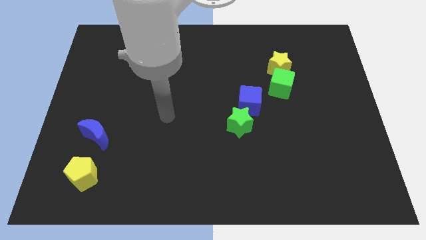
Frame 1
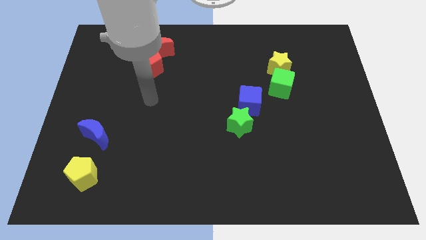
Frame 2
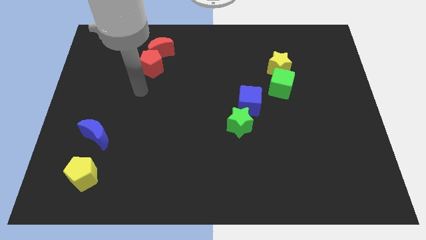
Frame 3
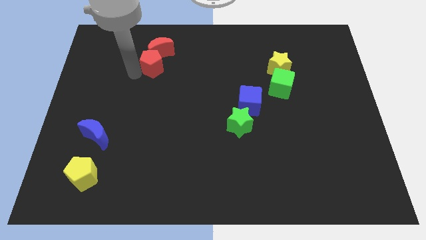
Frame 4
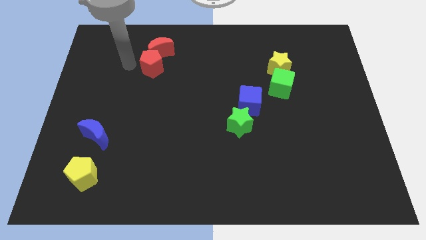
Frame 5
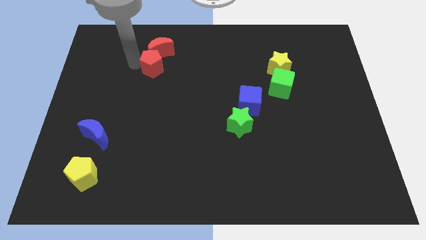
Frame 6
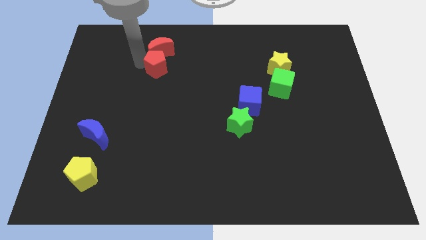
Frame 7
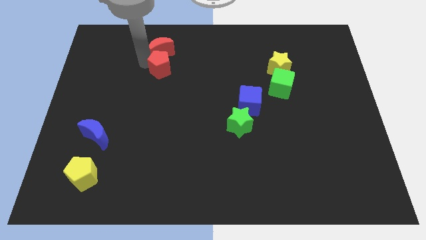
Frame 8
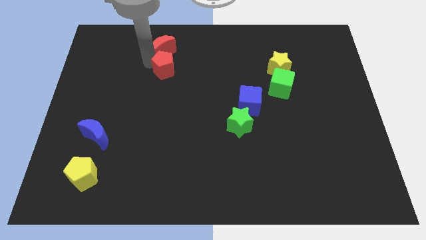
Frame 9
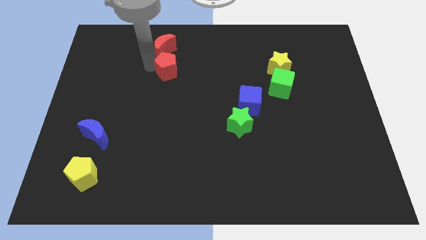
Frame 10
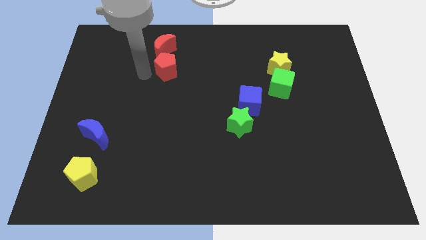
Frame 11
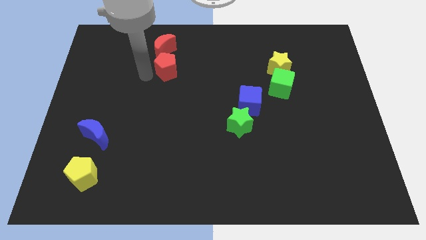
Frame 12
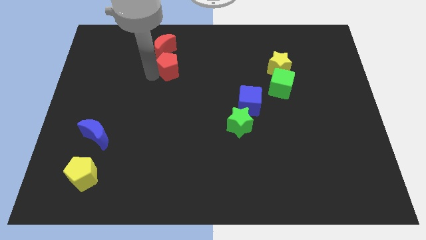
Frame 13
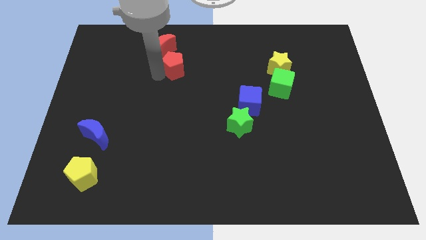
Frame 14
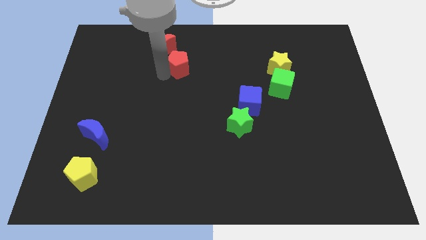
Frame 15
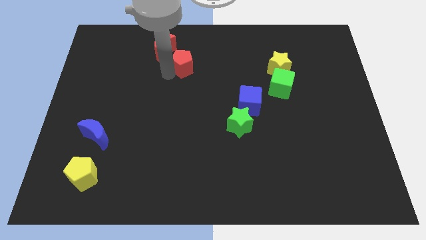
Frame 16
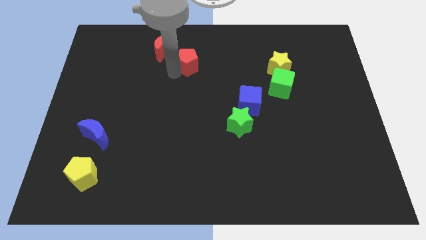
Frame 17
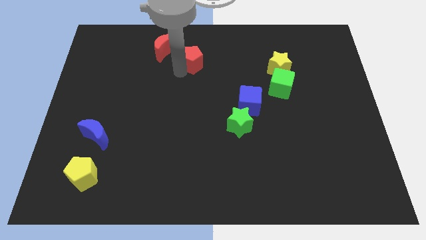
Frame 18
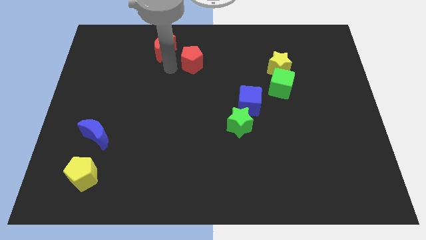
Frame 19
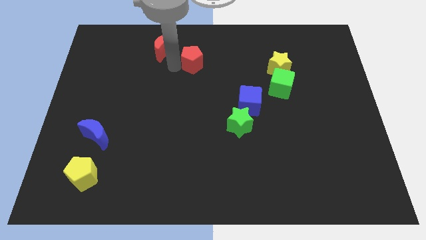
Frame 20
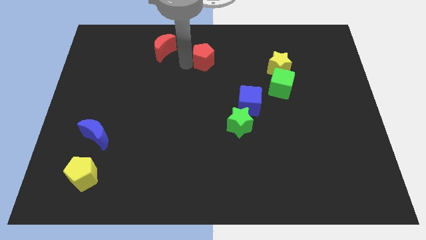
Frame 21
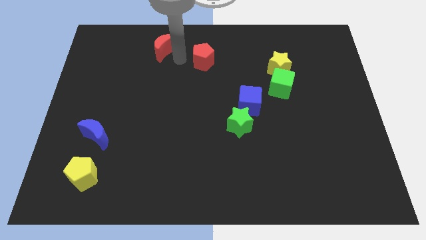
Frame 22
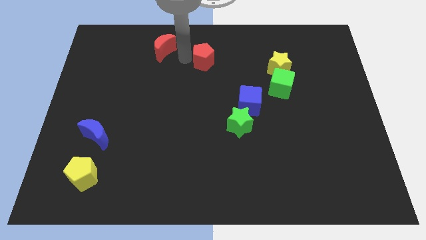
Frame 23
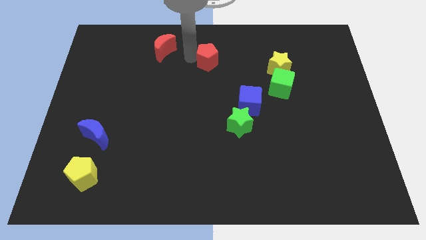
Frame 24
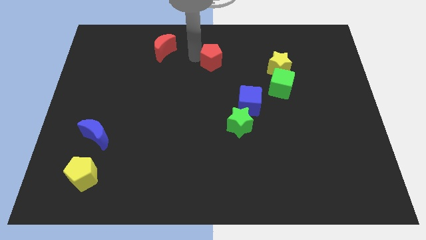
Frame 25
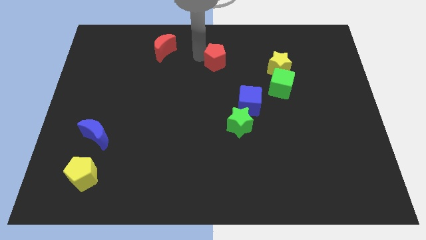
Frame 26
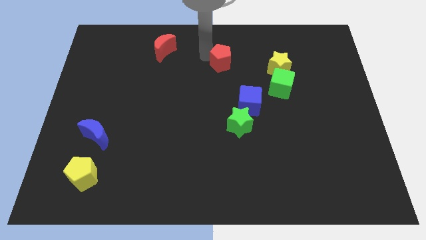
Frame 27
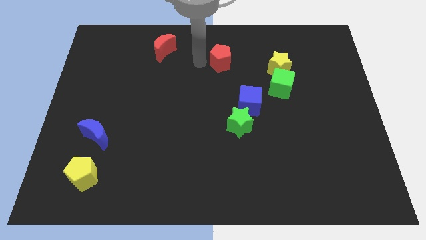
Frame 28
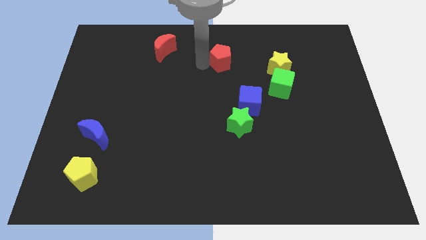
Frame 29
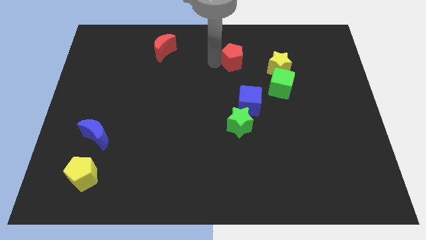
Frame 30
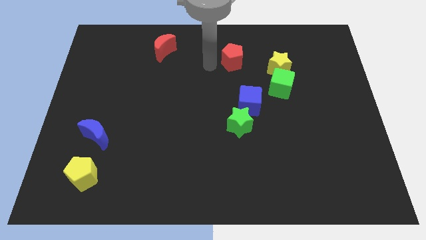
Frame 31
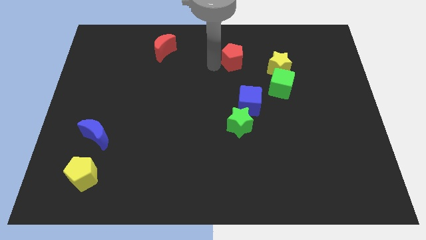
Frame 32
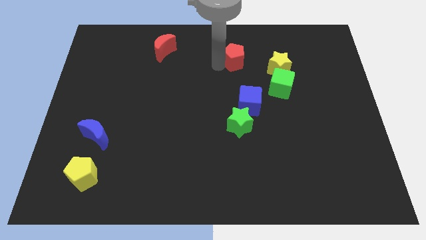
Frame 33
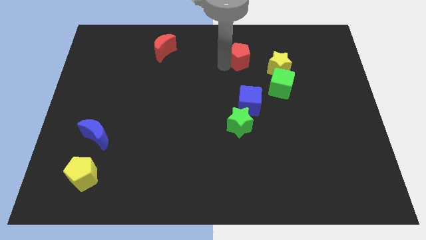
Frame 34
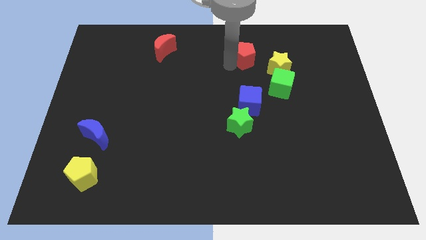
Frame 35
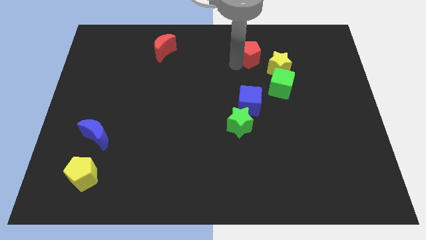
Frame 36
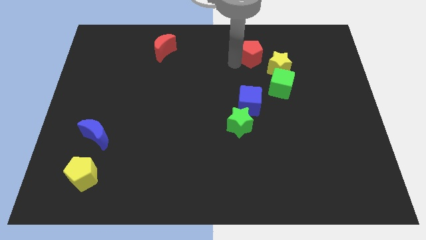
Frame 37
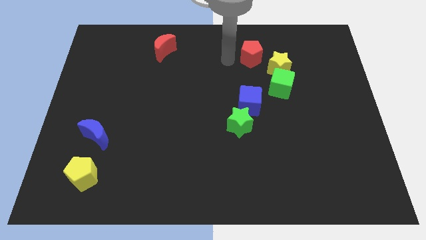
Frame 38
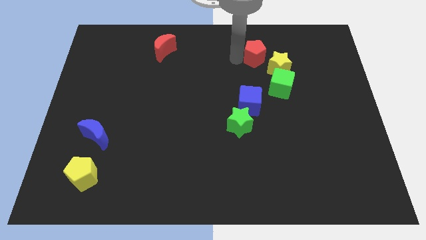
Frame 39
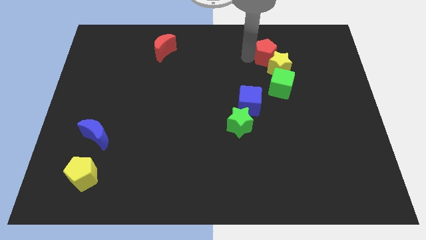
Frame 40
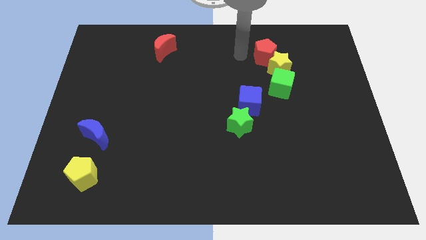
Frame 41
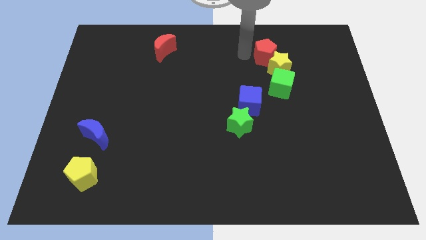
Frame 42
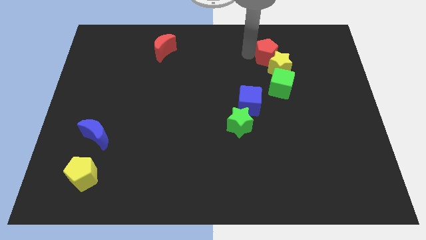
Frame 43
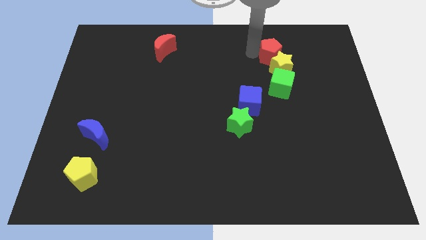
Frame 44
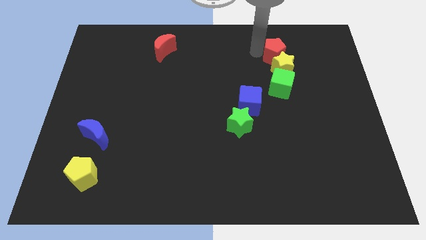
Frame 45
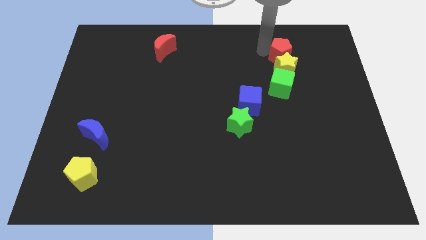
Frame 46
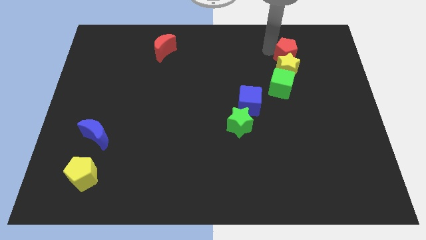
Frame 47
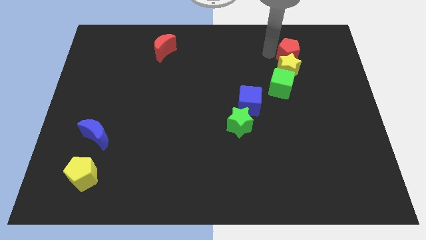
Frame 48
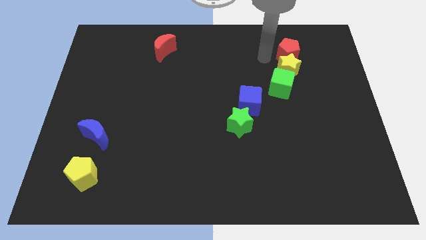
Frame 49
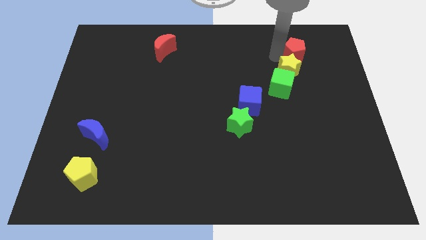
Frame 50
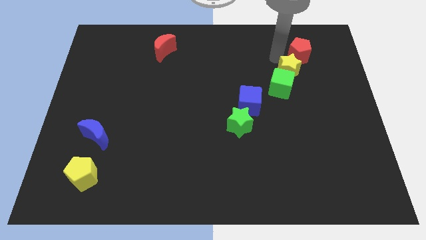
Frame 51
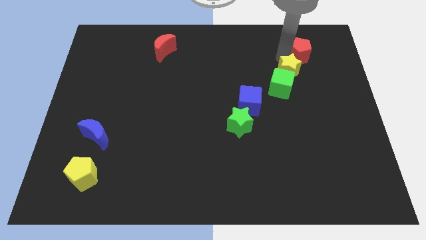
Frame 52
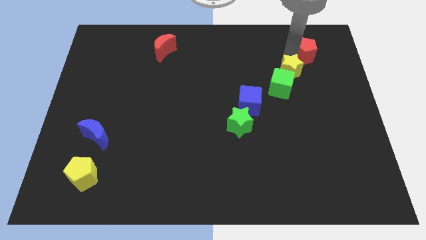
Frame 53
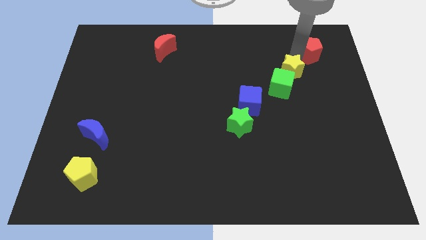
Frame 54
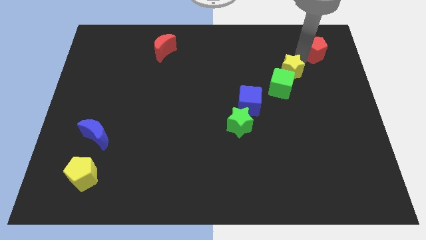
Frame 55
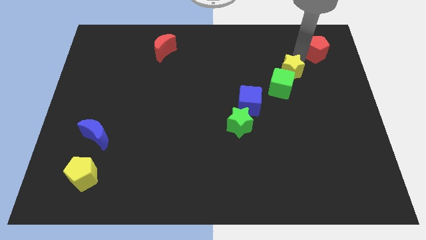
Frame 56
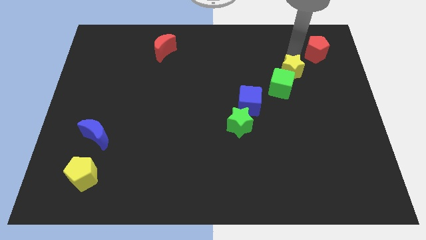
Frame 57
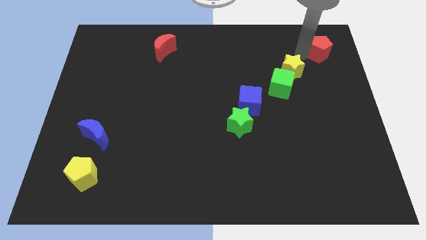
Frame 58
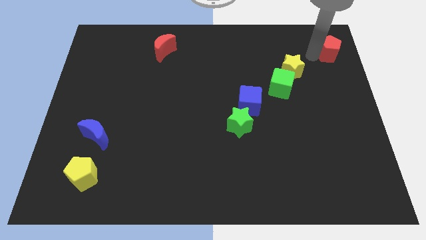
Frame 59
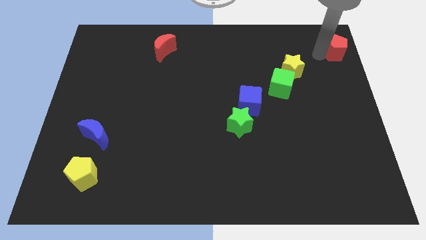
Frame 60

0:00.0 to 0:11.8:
slide the red pentagon to the upper right corner

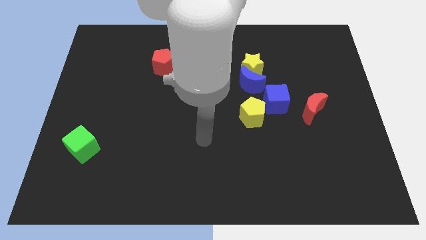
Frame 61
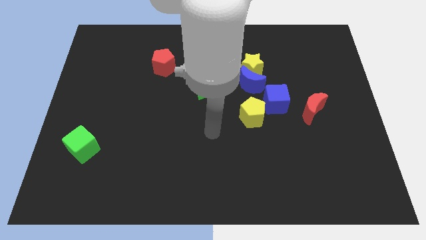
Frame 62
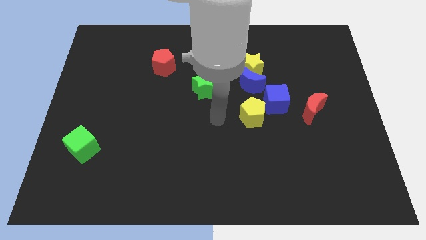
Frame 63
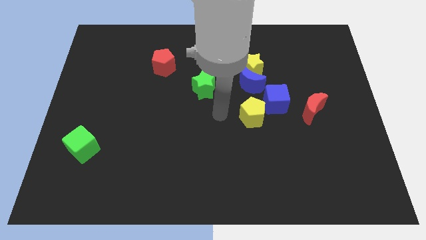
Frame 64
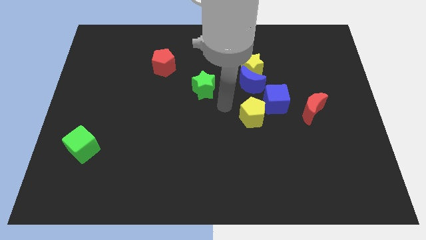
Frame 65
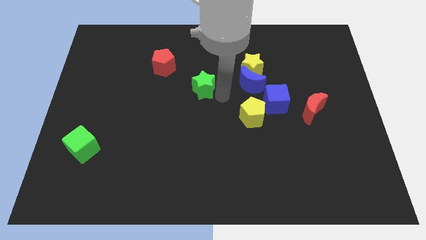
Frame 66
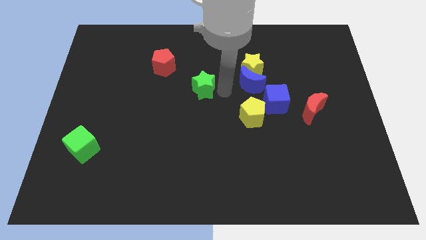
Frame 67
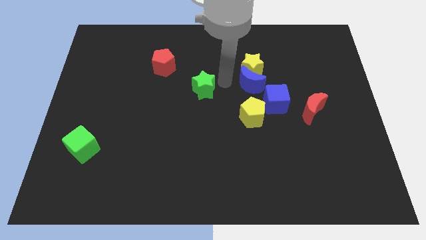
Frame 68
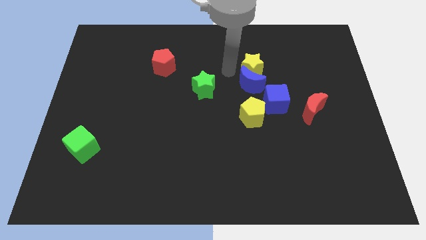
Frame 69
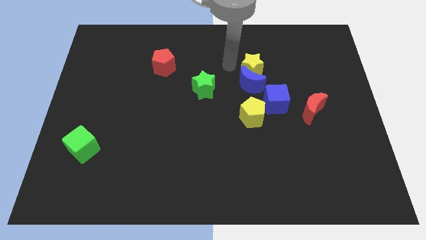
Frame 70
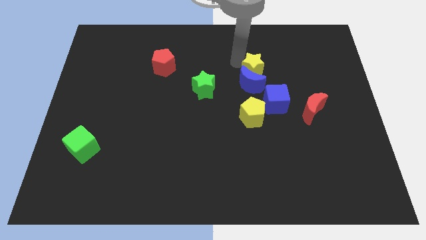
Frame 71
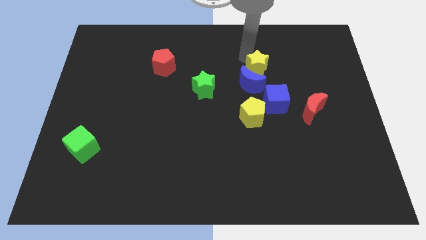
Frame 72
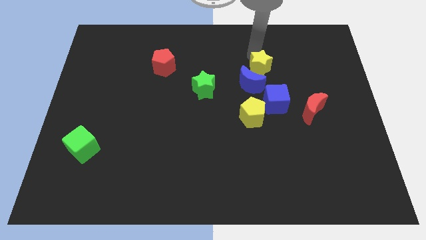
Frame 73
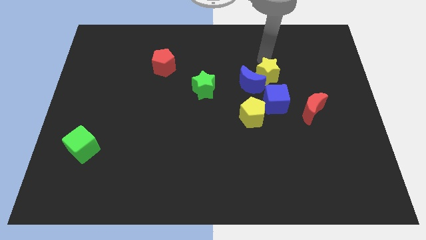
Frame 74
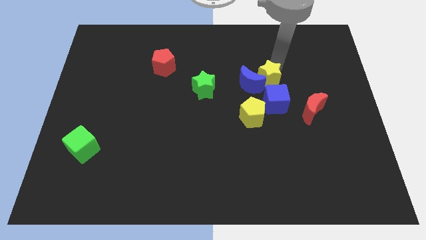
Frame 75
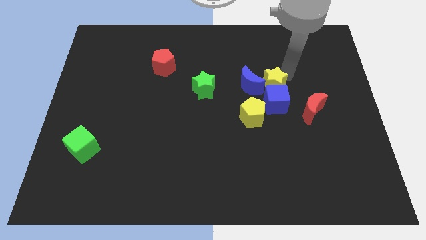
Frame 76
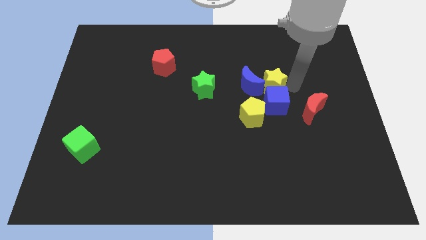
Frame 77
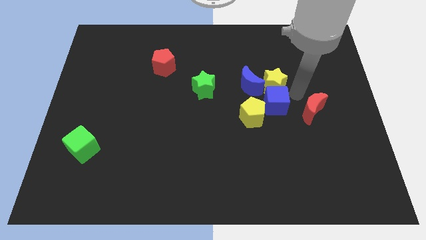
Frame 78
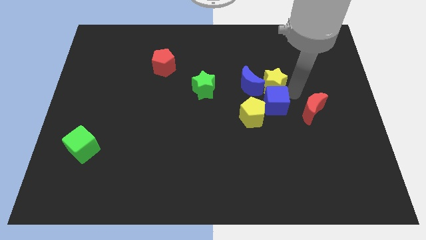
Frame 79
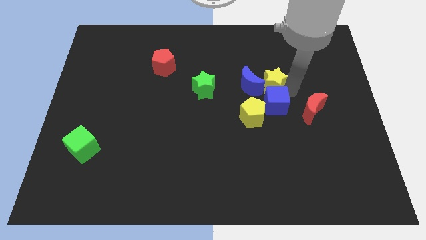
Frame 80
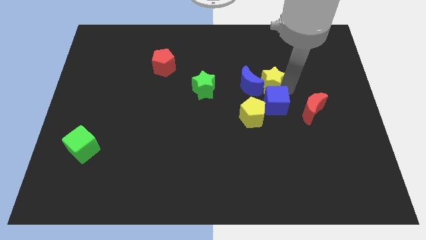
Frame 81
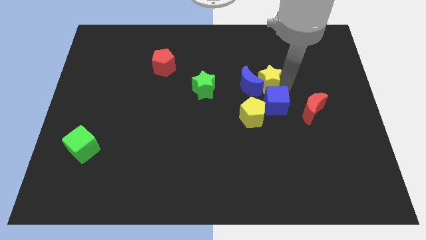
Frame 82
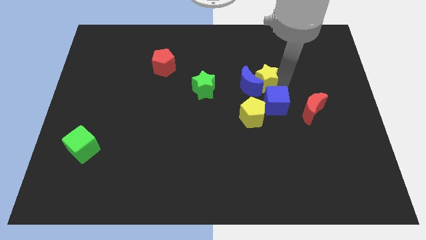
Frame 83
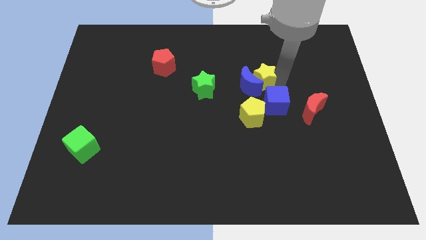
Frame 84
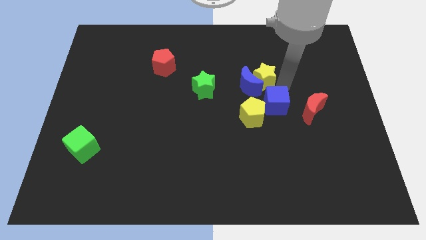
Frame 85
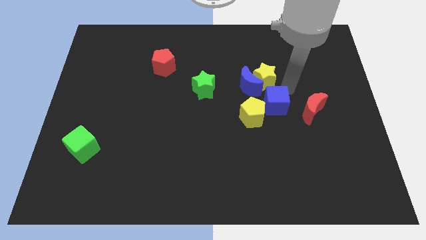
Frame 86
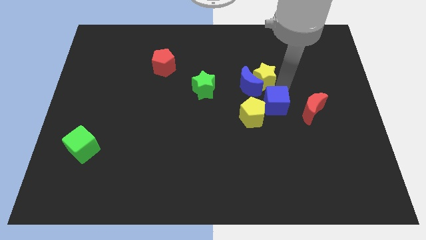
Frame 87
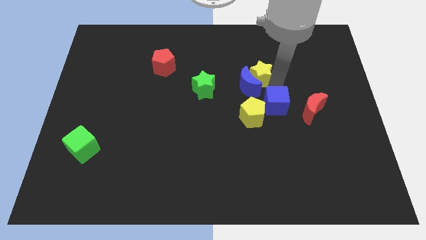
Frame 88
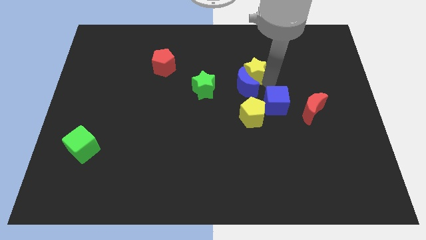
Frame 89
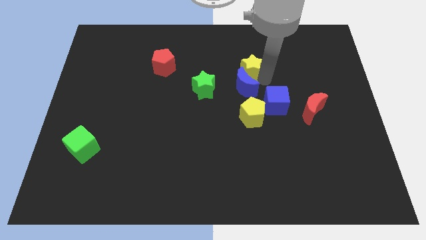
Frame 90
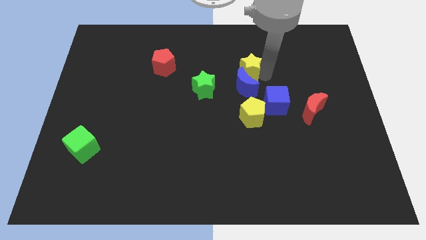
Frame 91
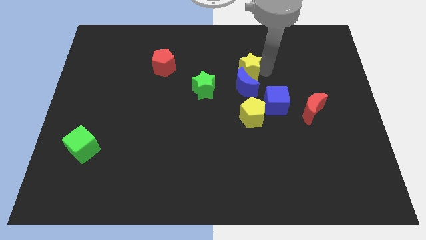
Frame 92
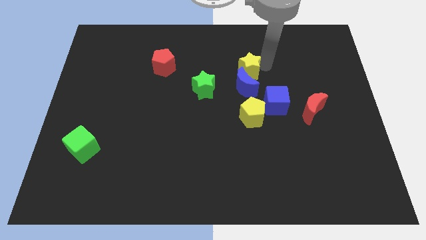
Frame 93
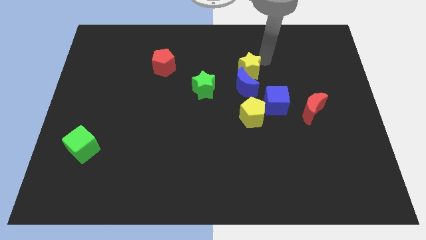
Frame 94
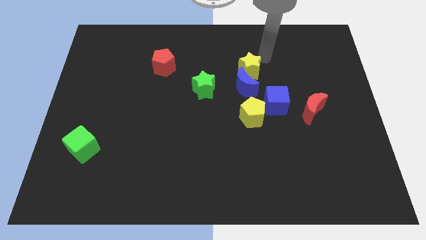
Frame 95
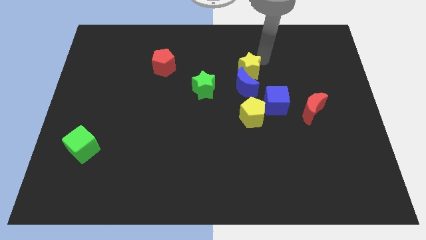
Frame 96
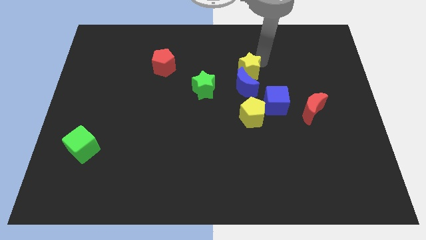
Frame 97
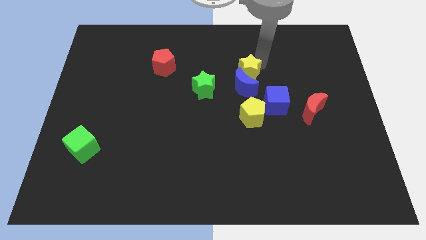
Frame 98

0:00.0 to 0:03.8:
put the yellow star to the middle of the board
